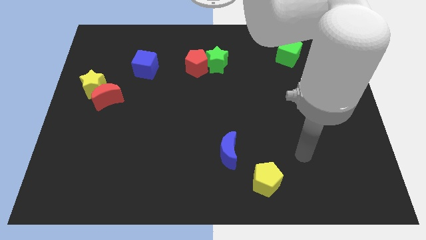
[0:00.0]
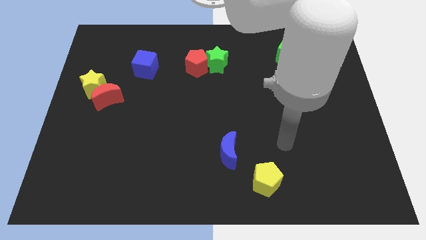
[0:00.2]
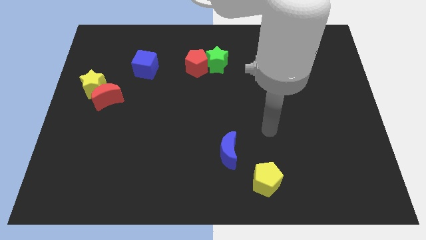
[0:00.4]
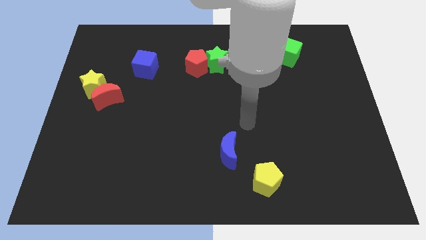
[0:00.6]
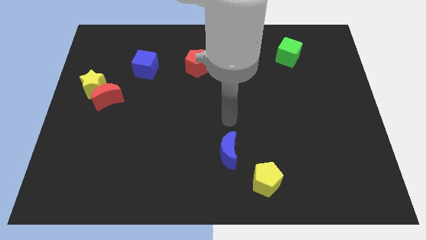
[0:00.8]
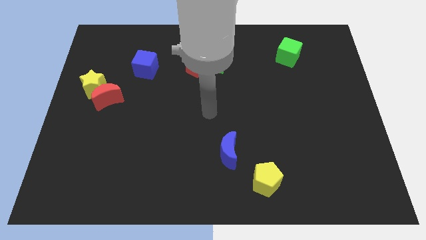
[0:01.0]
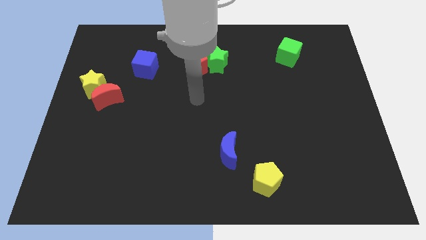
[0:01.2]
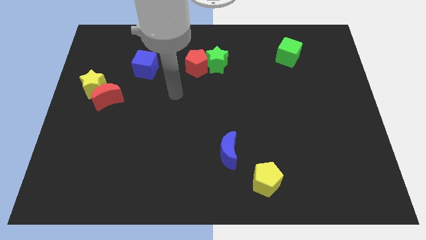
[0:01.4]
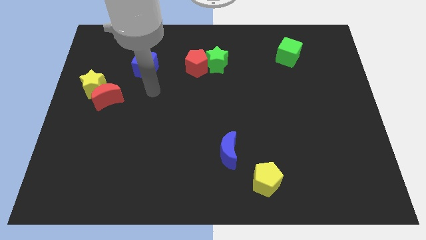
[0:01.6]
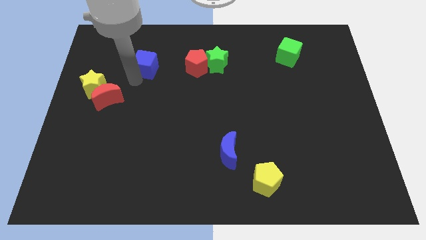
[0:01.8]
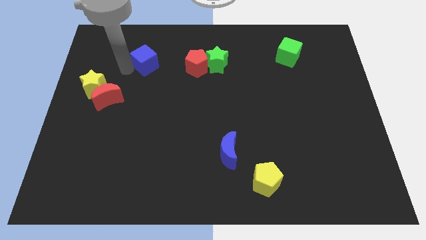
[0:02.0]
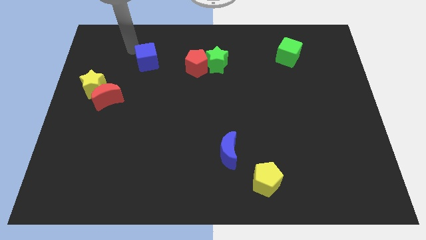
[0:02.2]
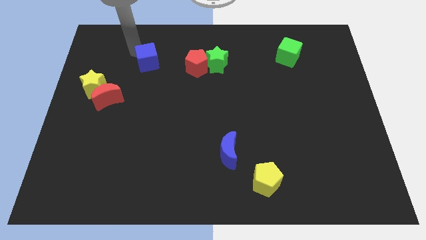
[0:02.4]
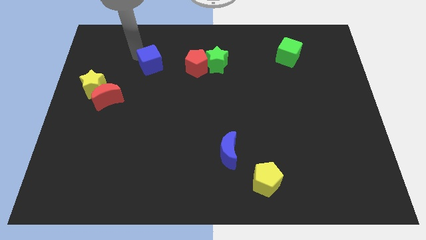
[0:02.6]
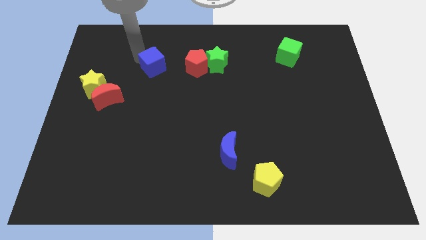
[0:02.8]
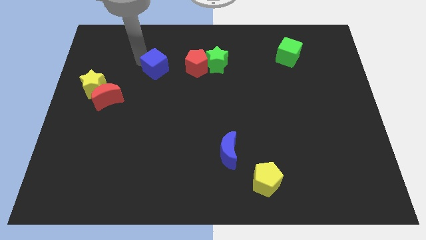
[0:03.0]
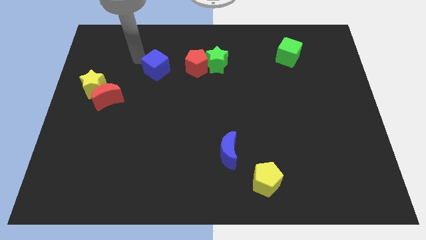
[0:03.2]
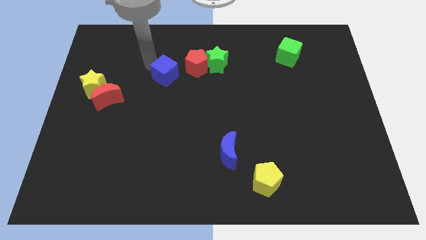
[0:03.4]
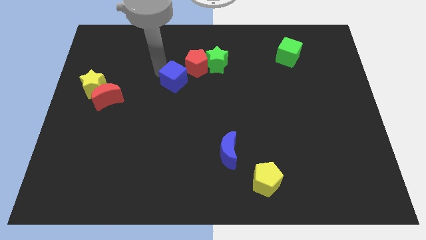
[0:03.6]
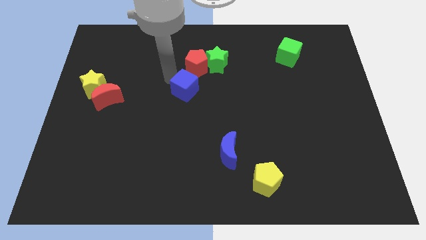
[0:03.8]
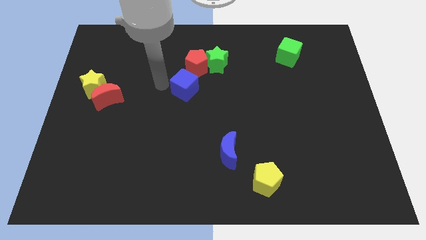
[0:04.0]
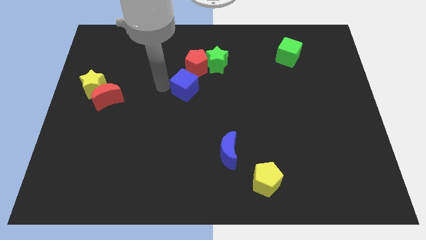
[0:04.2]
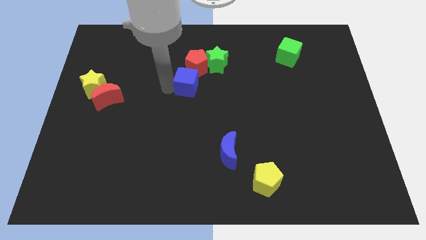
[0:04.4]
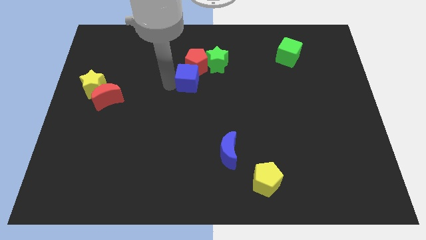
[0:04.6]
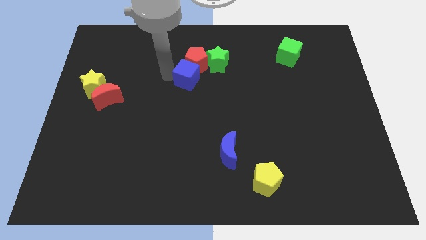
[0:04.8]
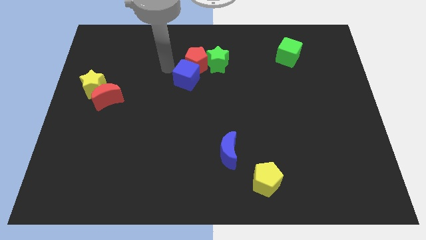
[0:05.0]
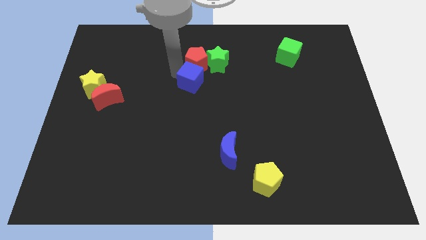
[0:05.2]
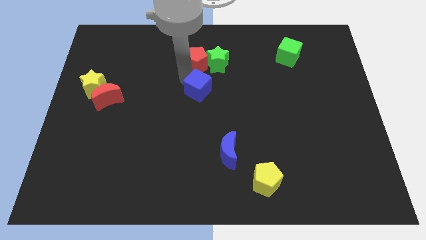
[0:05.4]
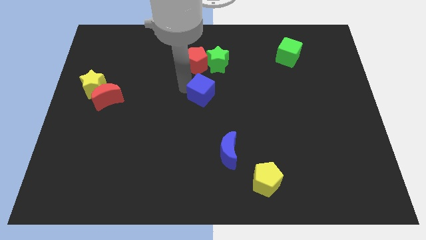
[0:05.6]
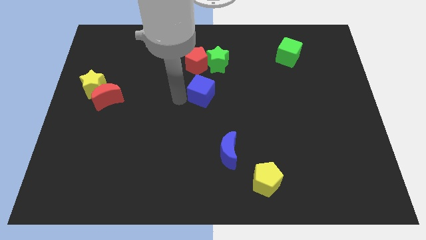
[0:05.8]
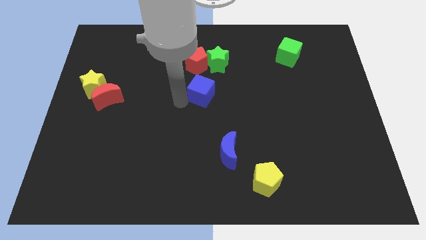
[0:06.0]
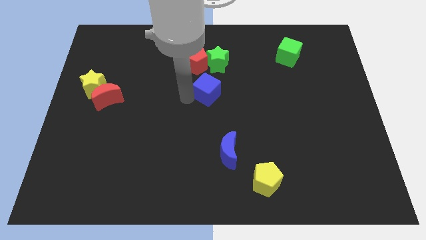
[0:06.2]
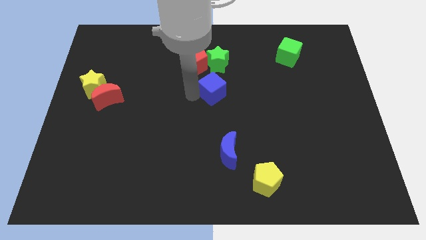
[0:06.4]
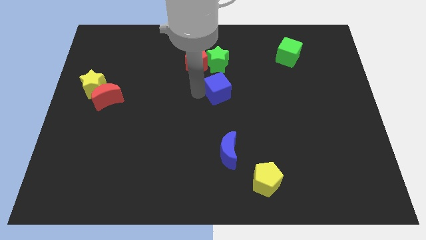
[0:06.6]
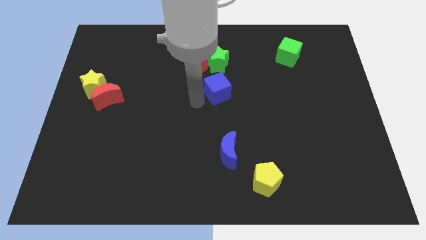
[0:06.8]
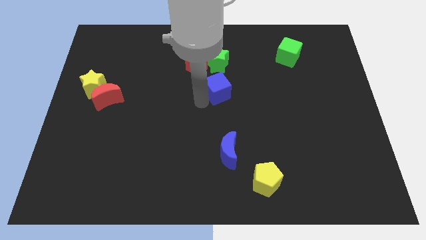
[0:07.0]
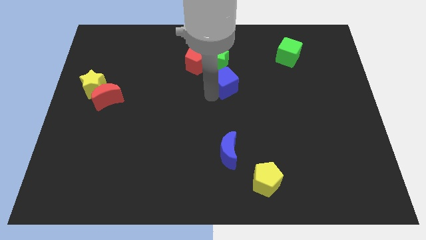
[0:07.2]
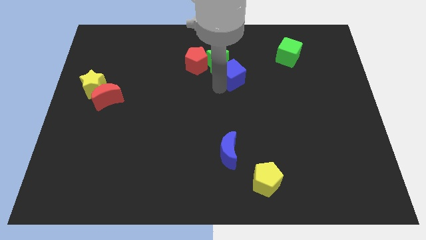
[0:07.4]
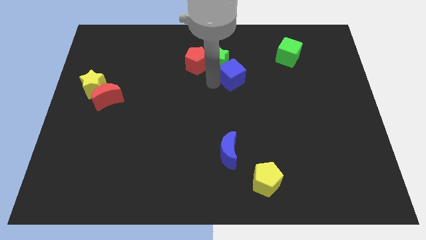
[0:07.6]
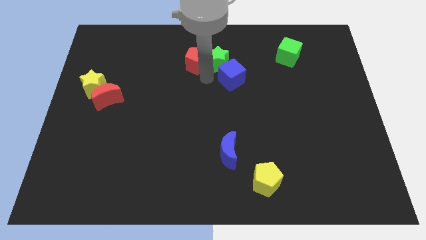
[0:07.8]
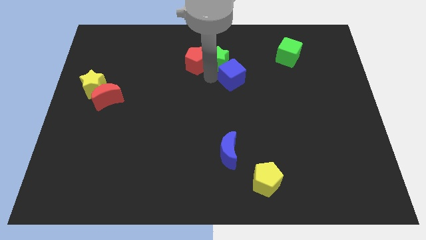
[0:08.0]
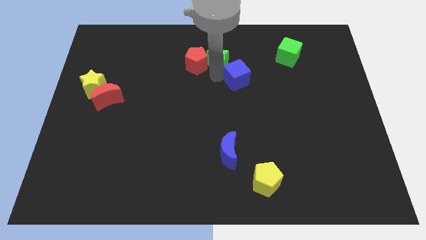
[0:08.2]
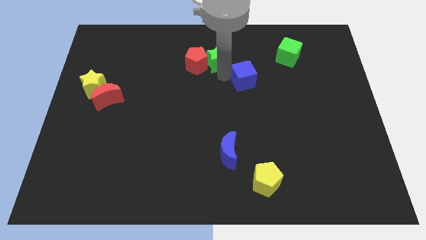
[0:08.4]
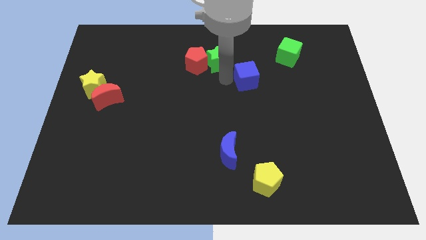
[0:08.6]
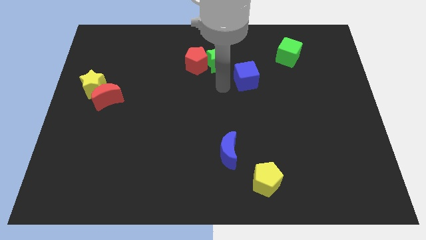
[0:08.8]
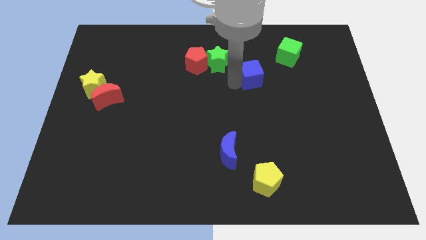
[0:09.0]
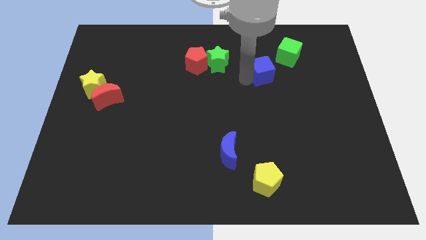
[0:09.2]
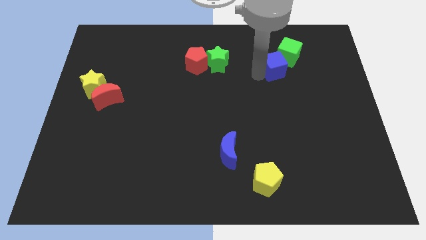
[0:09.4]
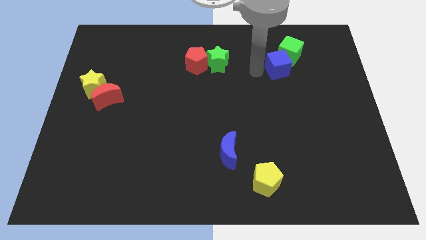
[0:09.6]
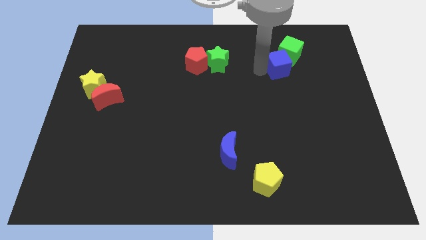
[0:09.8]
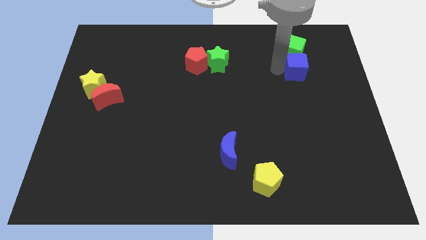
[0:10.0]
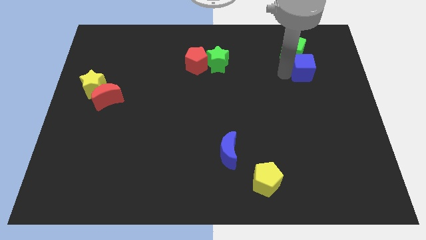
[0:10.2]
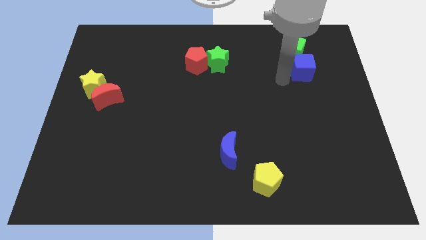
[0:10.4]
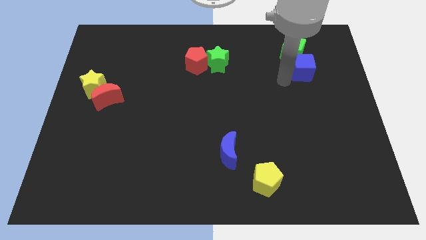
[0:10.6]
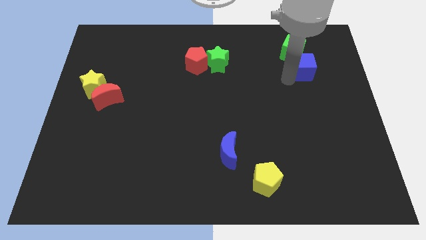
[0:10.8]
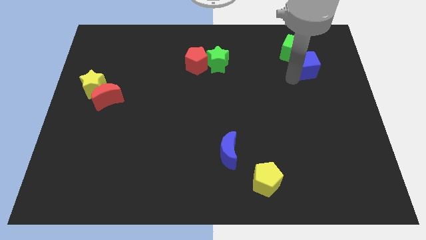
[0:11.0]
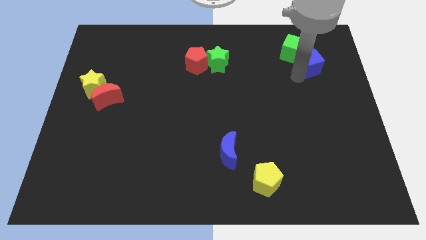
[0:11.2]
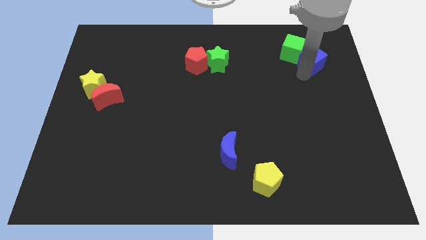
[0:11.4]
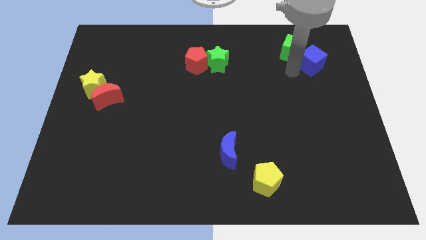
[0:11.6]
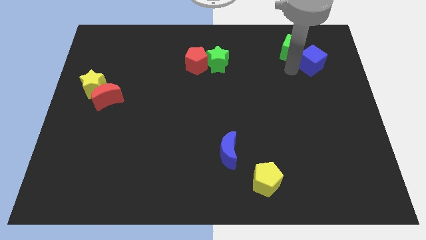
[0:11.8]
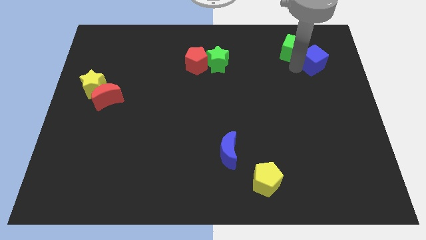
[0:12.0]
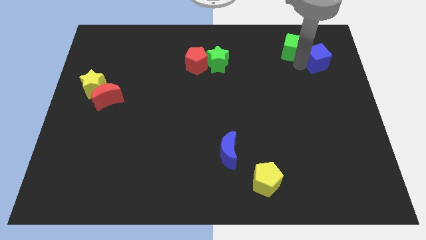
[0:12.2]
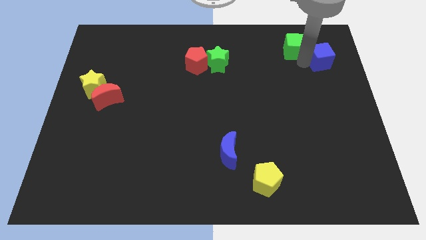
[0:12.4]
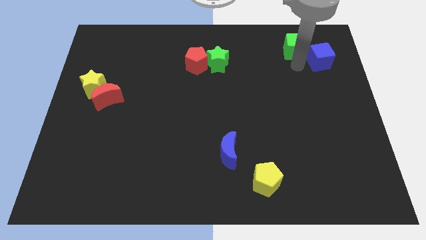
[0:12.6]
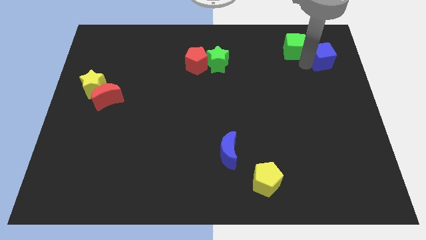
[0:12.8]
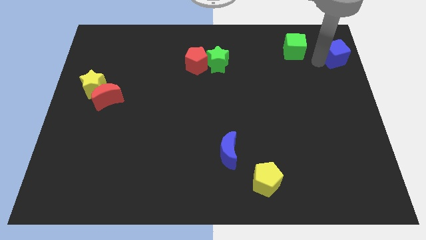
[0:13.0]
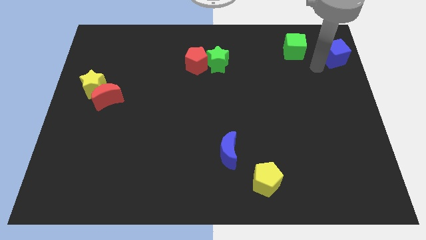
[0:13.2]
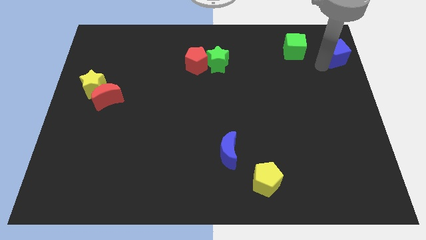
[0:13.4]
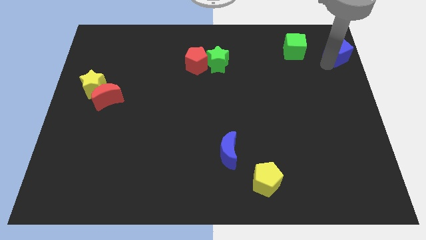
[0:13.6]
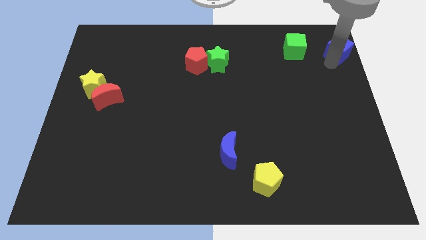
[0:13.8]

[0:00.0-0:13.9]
move the blue cube to the top right corner
